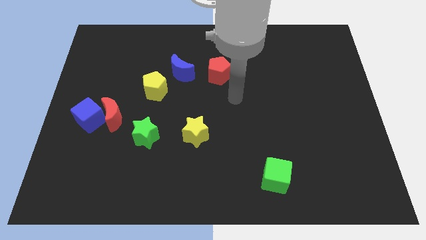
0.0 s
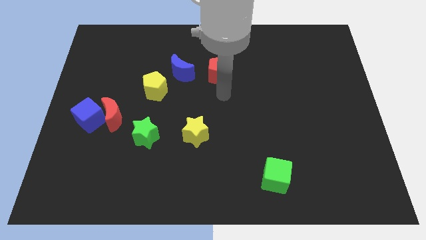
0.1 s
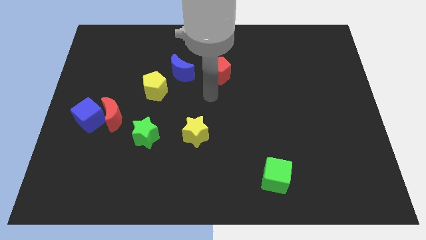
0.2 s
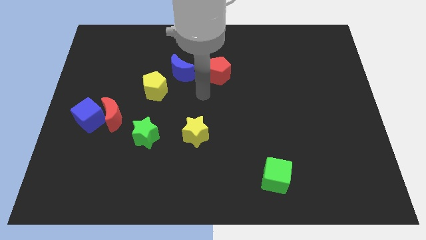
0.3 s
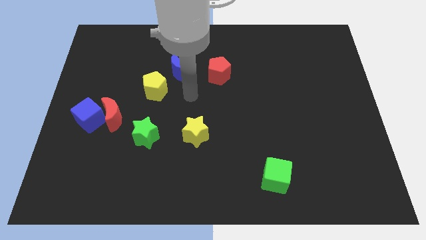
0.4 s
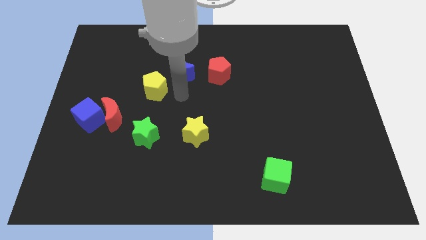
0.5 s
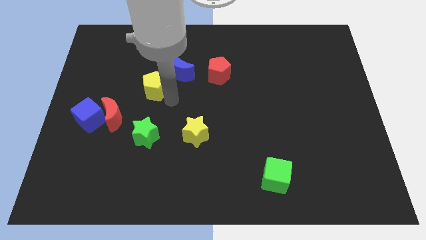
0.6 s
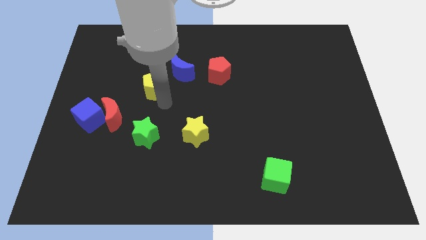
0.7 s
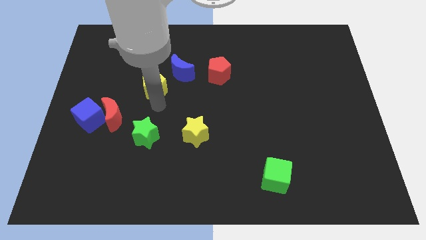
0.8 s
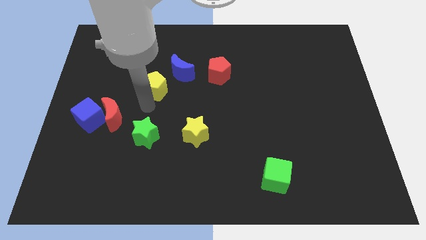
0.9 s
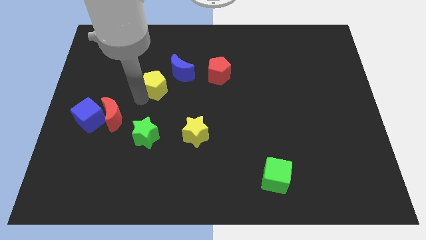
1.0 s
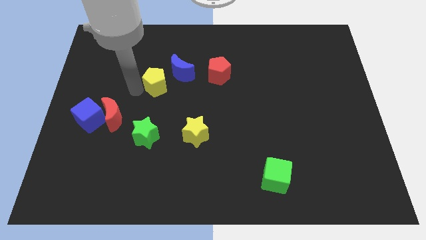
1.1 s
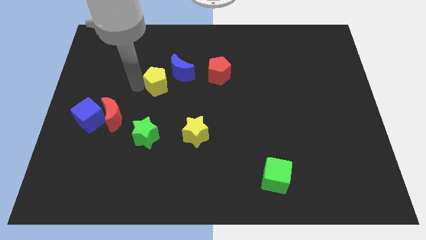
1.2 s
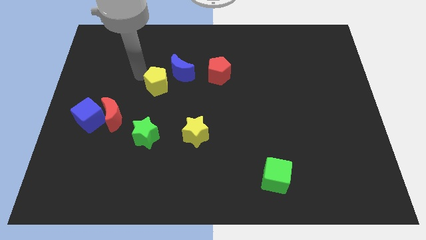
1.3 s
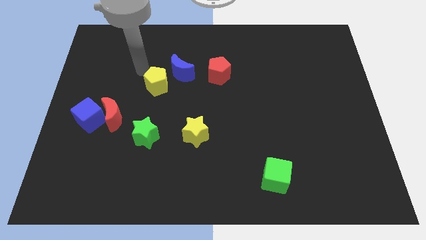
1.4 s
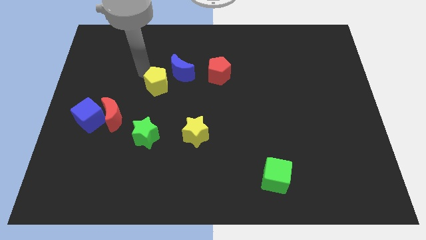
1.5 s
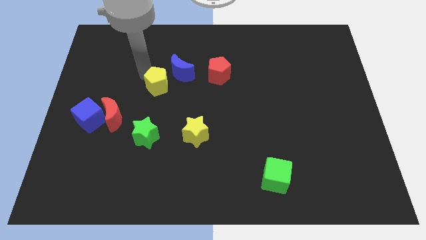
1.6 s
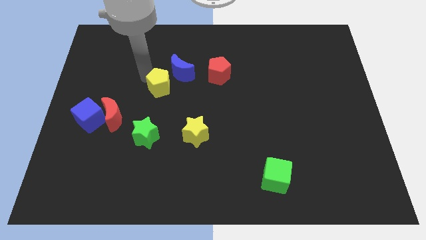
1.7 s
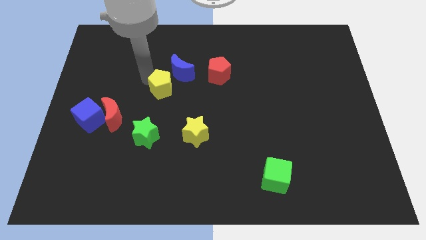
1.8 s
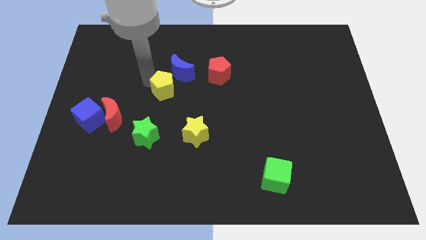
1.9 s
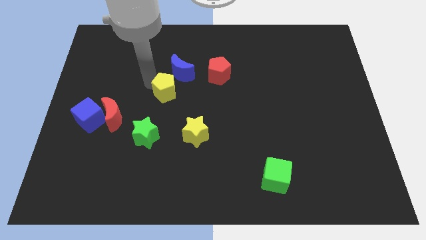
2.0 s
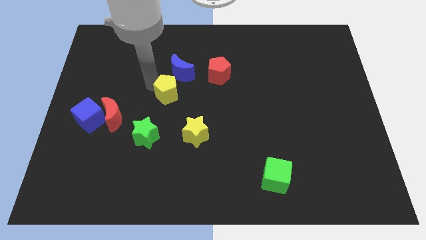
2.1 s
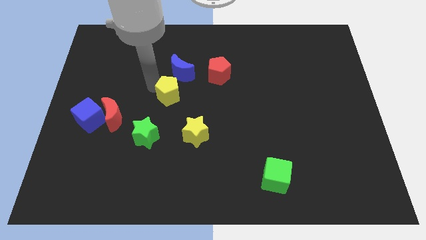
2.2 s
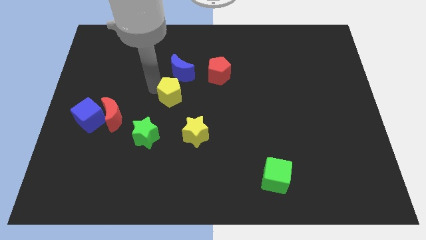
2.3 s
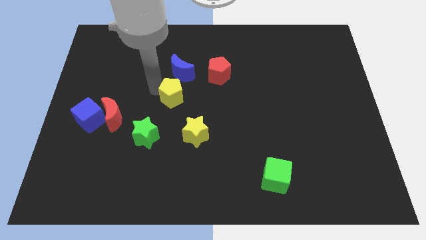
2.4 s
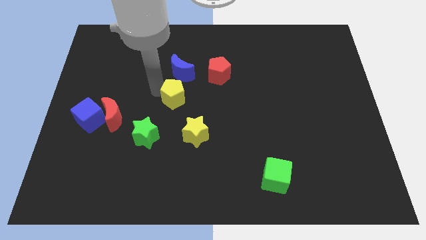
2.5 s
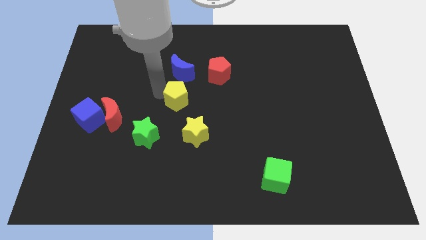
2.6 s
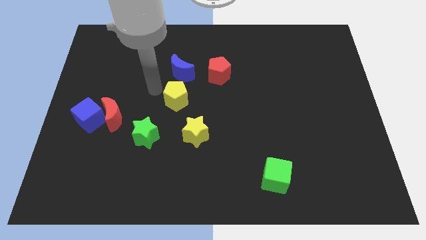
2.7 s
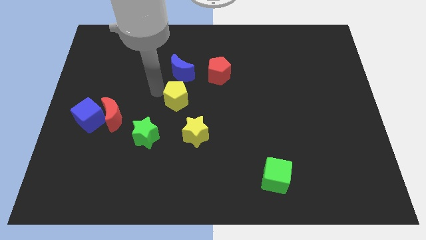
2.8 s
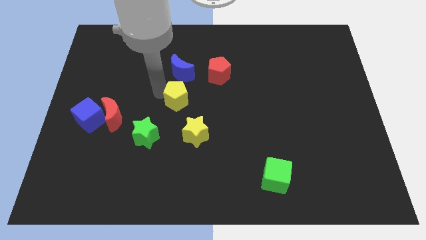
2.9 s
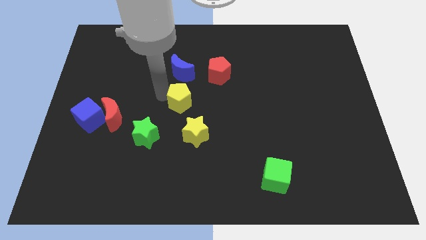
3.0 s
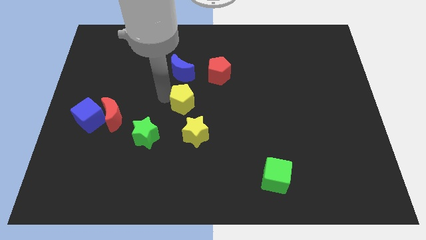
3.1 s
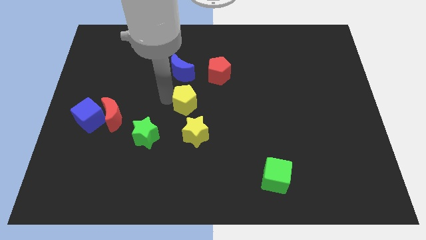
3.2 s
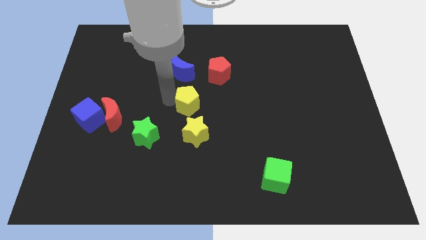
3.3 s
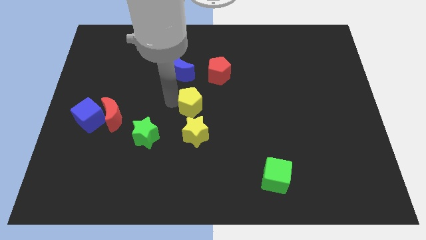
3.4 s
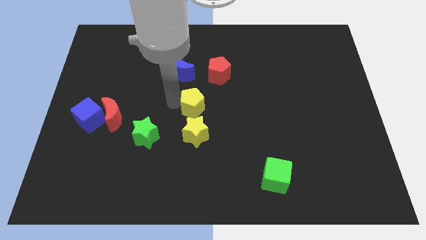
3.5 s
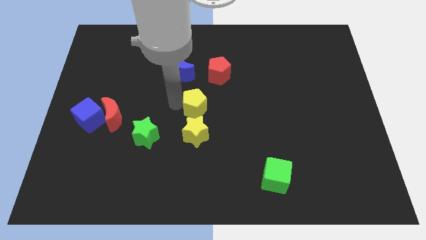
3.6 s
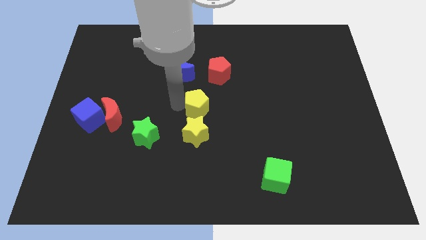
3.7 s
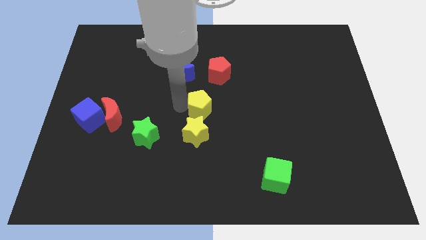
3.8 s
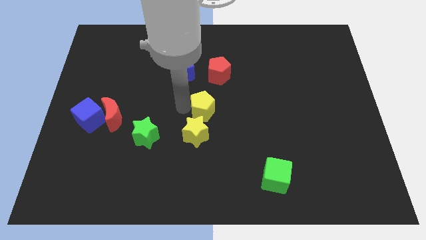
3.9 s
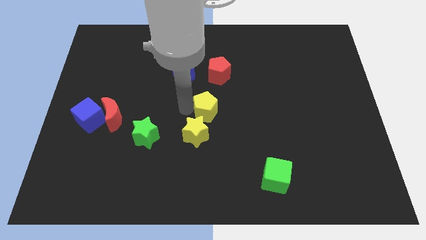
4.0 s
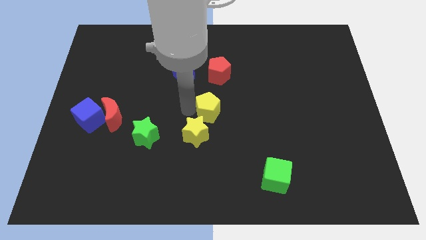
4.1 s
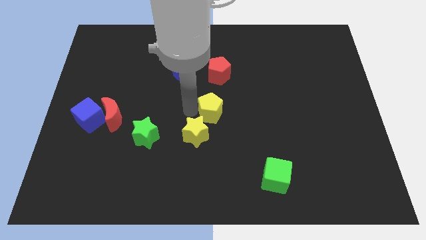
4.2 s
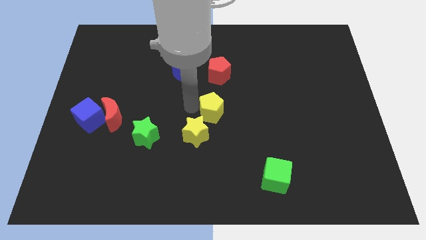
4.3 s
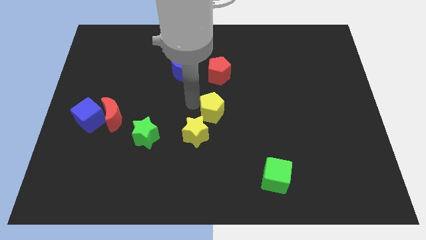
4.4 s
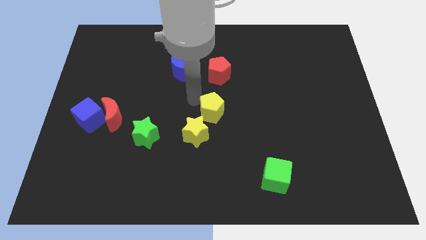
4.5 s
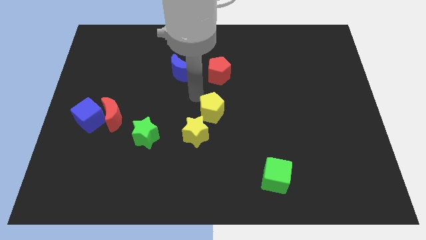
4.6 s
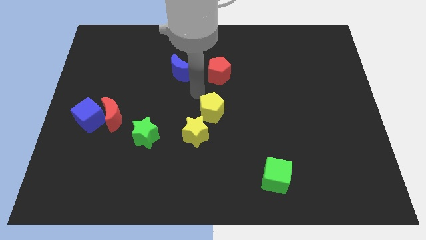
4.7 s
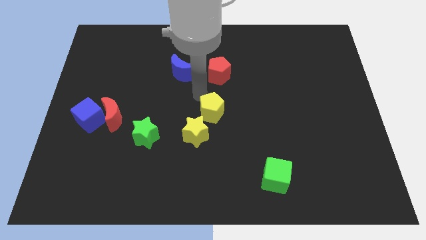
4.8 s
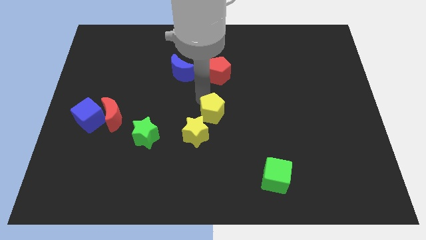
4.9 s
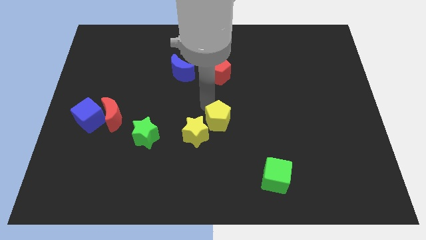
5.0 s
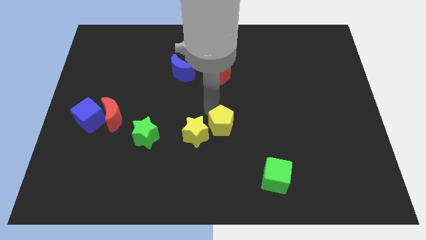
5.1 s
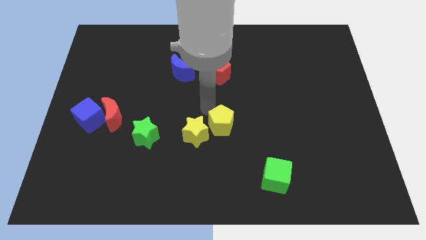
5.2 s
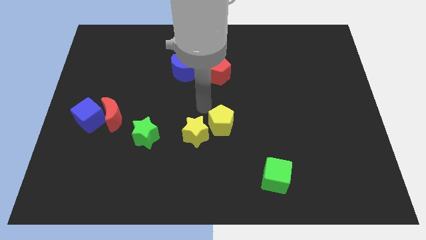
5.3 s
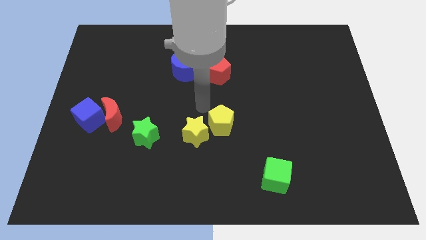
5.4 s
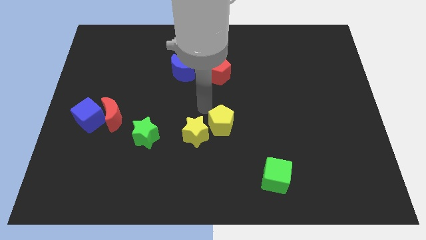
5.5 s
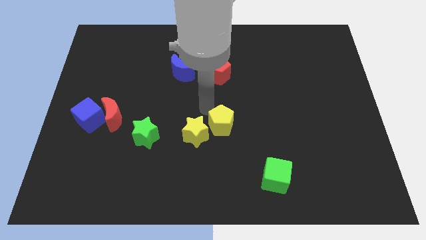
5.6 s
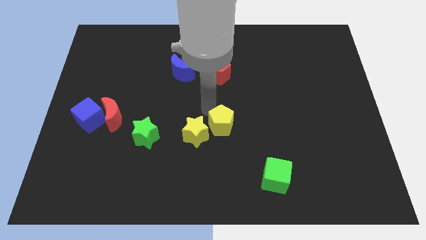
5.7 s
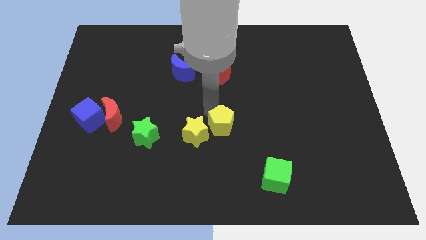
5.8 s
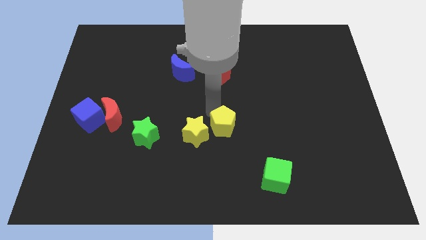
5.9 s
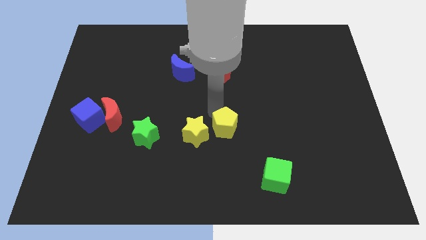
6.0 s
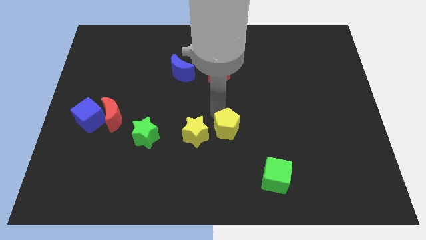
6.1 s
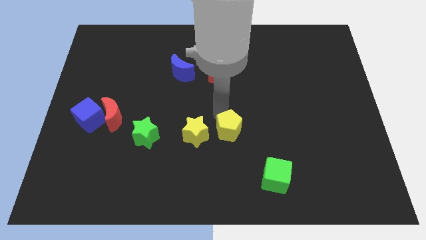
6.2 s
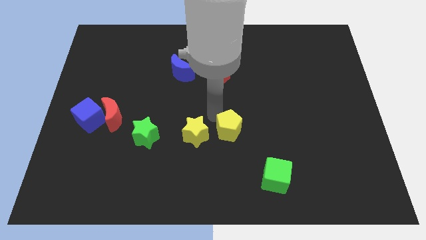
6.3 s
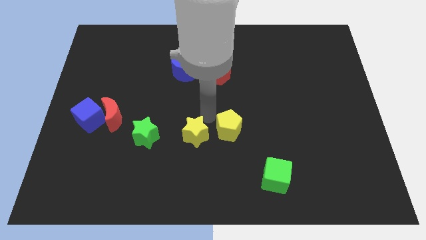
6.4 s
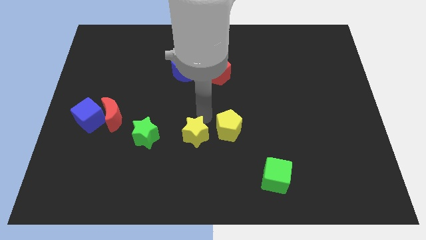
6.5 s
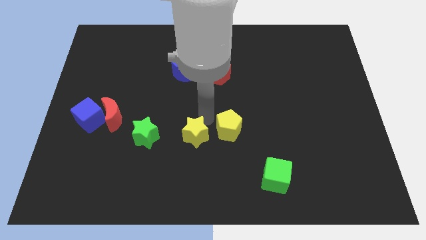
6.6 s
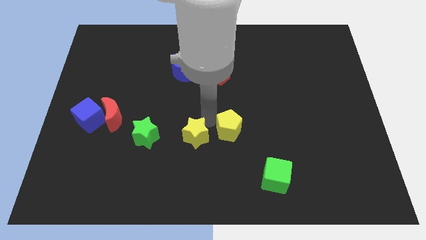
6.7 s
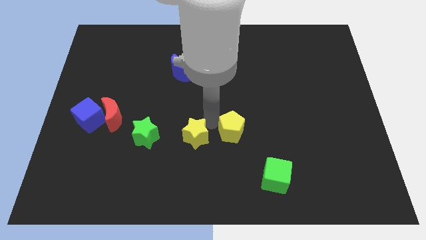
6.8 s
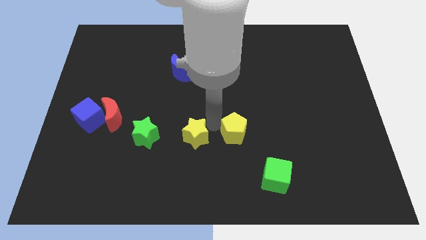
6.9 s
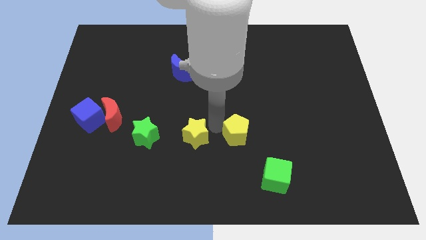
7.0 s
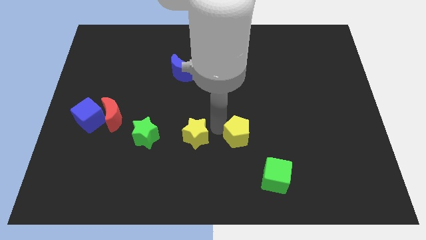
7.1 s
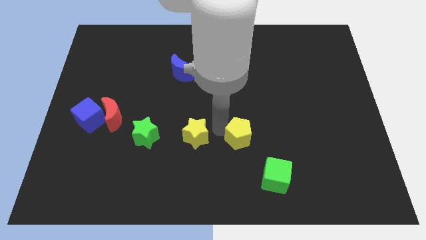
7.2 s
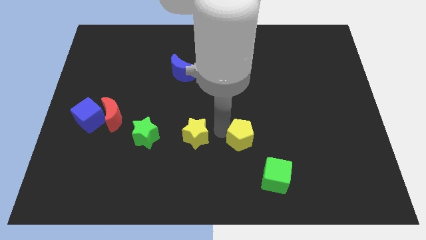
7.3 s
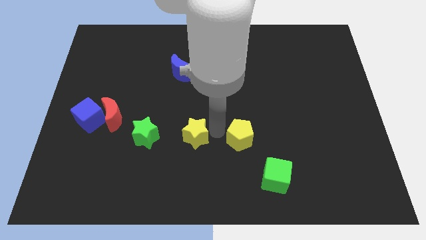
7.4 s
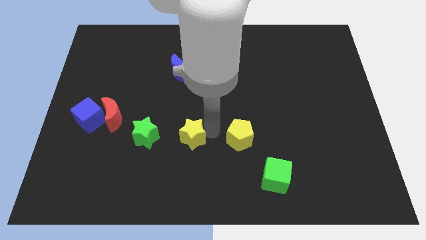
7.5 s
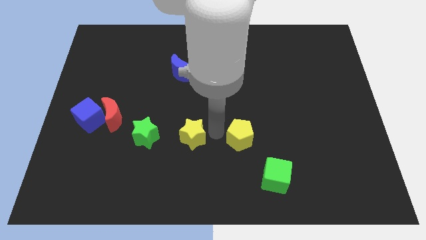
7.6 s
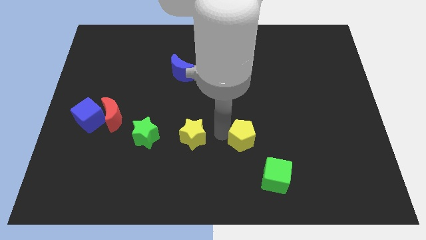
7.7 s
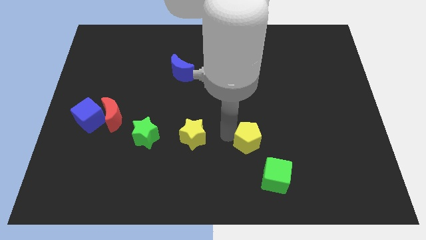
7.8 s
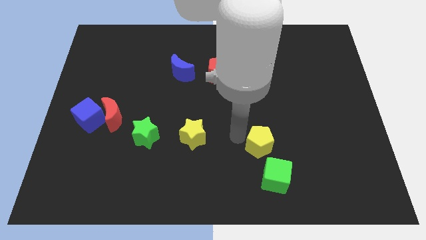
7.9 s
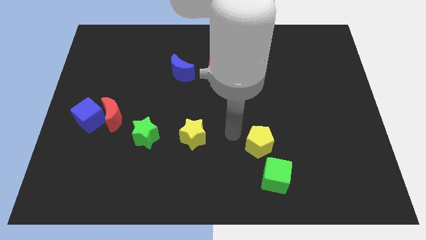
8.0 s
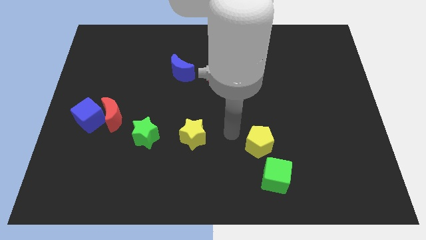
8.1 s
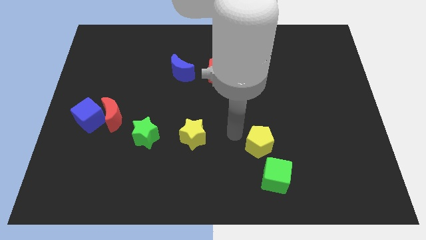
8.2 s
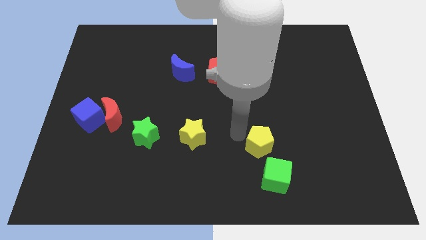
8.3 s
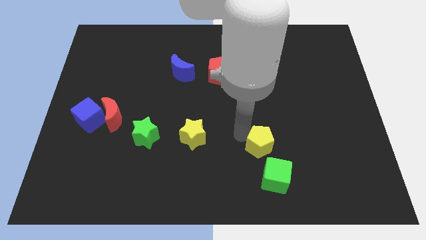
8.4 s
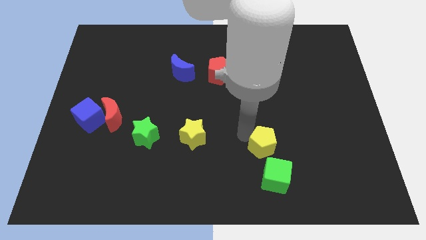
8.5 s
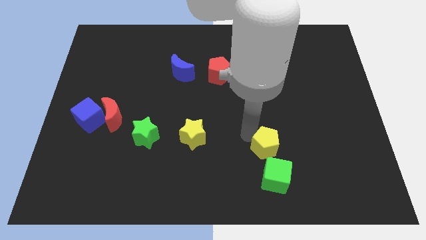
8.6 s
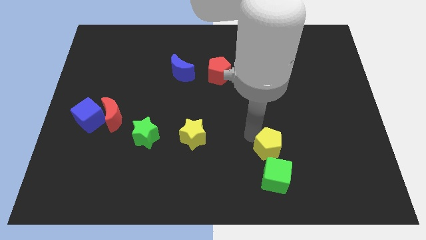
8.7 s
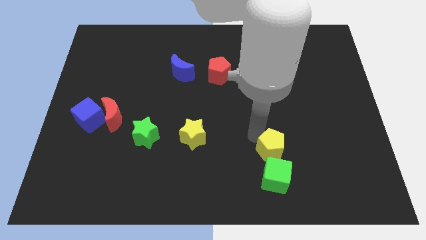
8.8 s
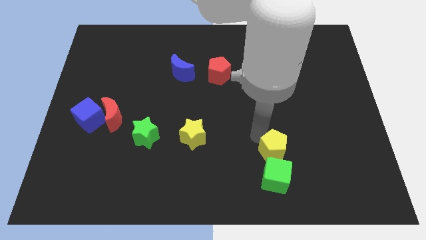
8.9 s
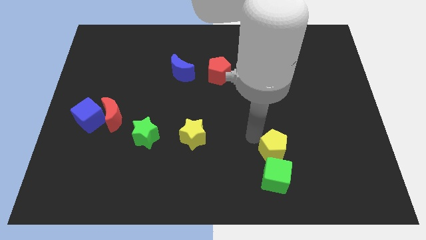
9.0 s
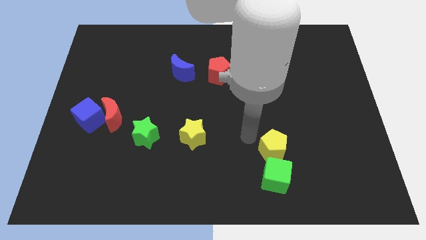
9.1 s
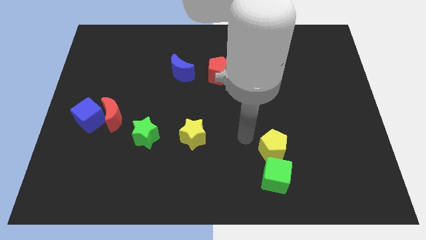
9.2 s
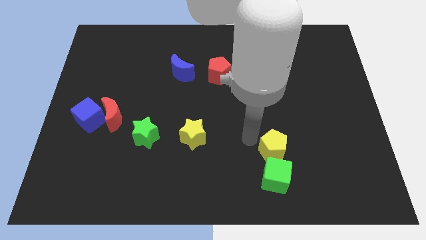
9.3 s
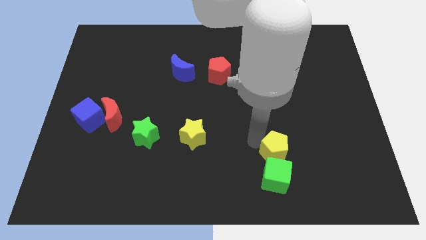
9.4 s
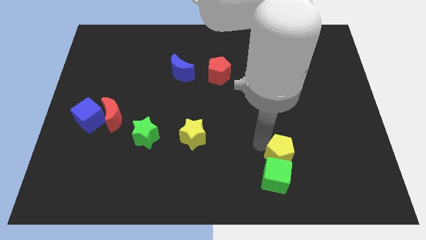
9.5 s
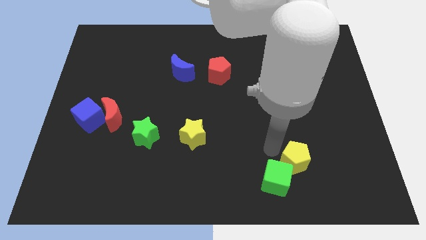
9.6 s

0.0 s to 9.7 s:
put the yellow pentagon to the right of the green cube
